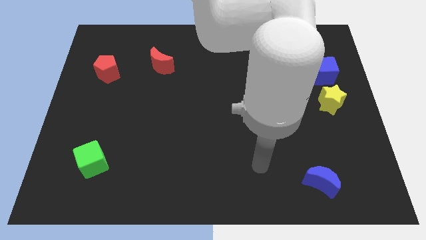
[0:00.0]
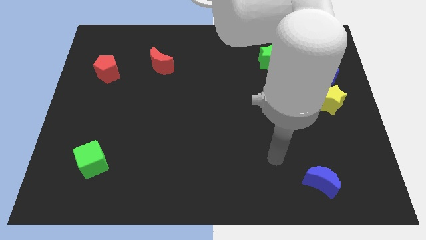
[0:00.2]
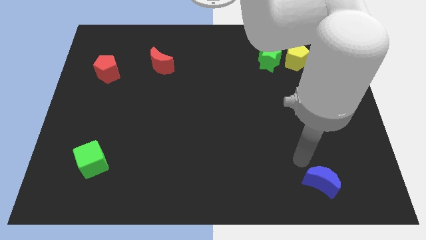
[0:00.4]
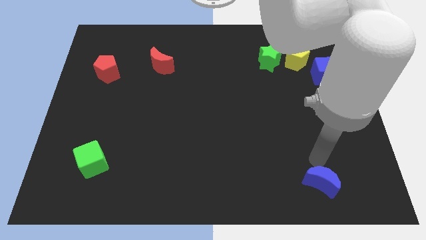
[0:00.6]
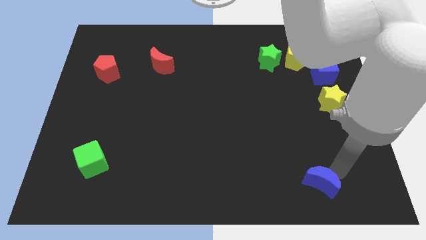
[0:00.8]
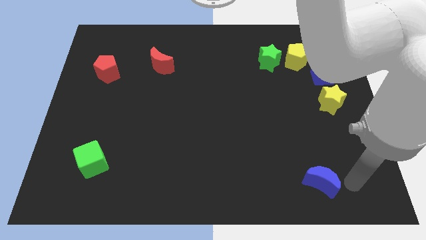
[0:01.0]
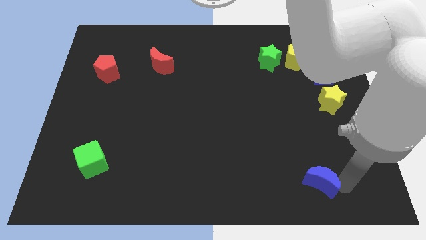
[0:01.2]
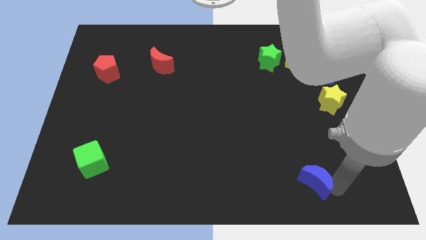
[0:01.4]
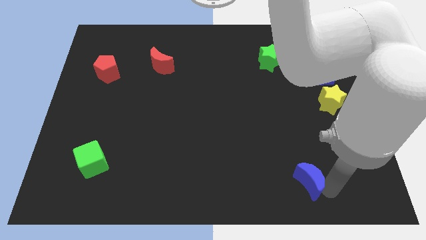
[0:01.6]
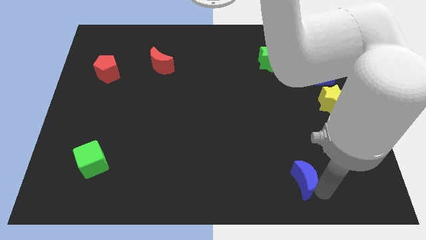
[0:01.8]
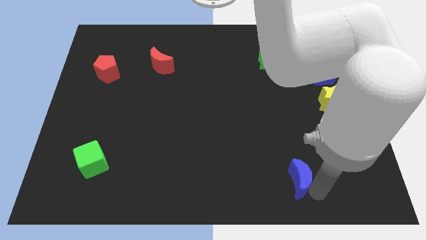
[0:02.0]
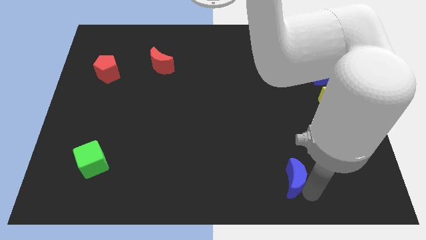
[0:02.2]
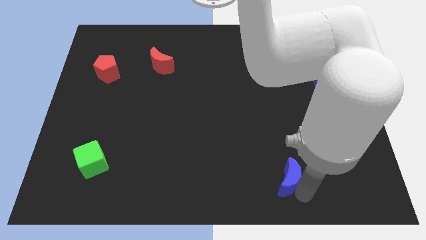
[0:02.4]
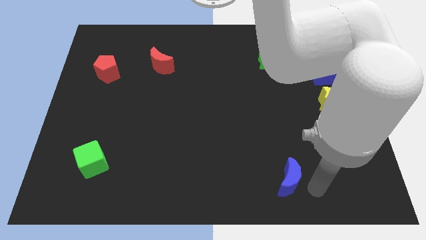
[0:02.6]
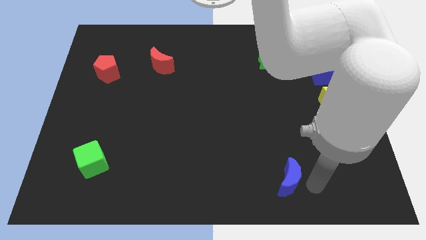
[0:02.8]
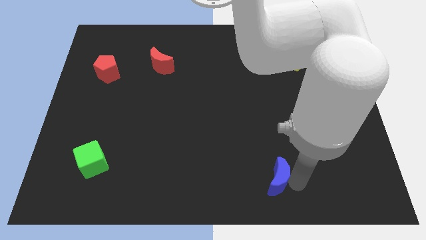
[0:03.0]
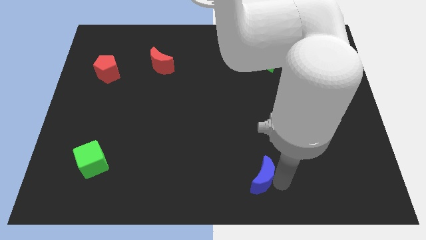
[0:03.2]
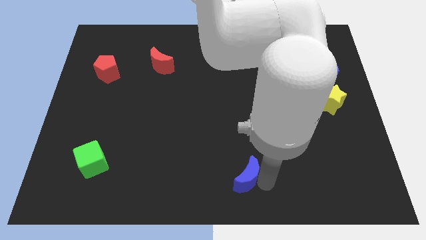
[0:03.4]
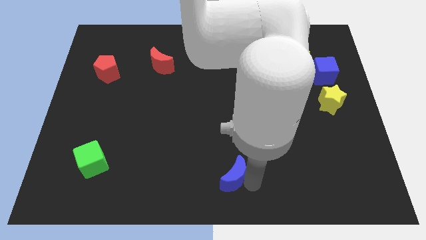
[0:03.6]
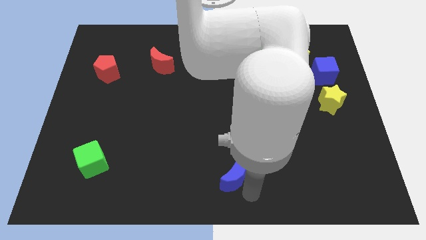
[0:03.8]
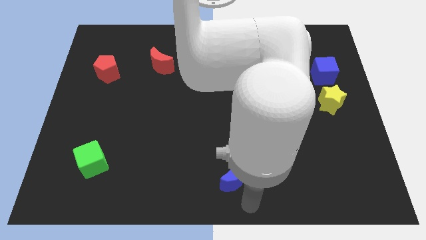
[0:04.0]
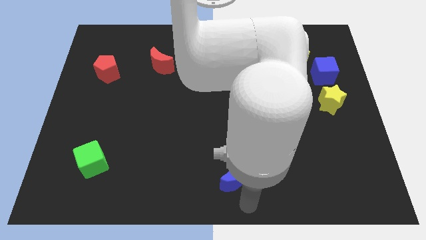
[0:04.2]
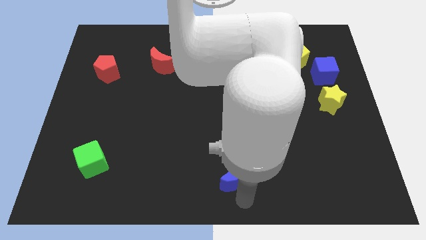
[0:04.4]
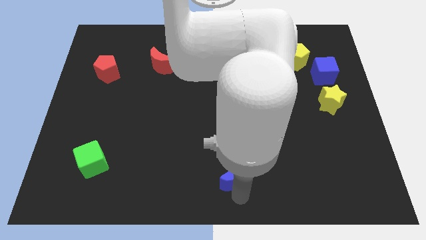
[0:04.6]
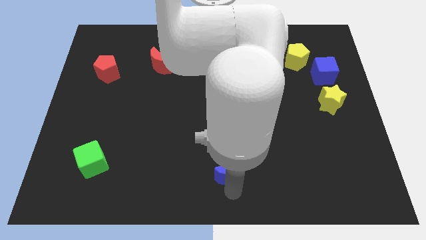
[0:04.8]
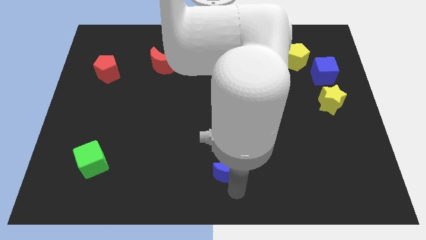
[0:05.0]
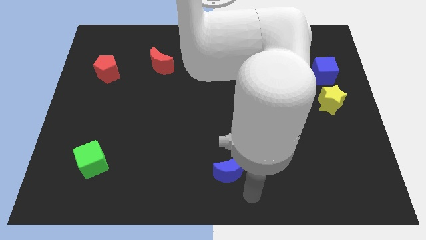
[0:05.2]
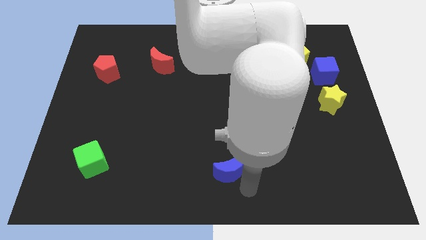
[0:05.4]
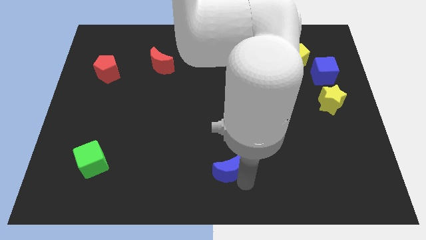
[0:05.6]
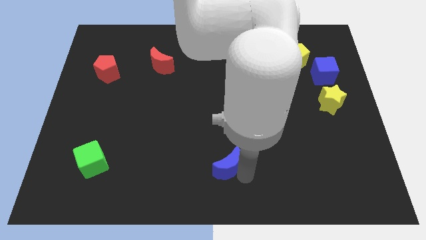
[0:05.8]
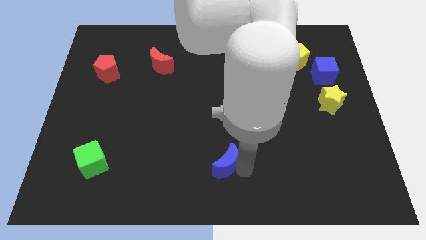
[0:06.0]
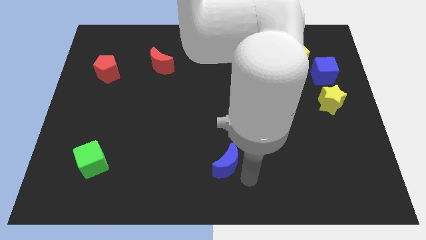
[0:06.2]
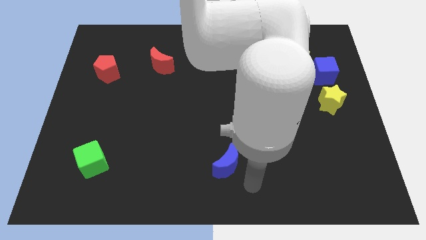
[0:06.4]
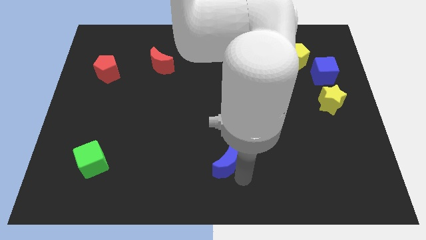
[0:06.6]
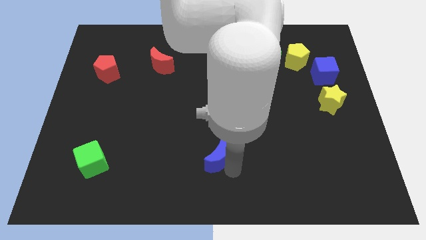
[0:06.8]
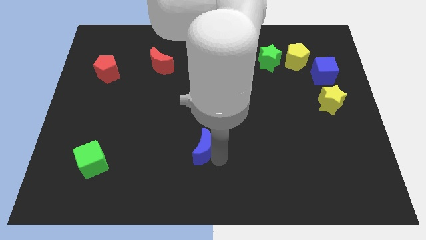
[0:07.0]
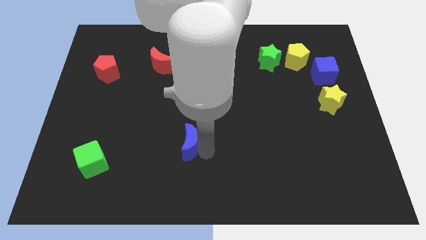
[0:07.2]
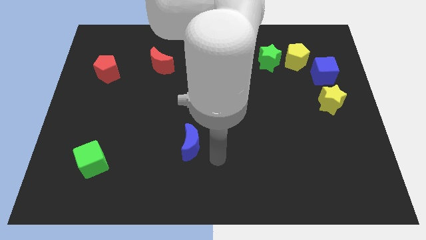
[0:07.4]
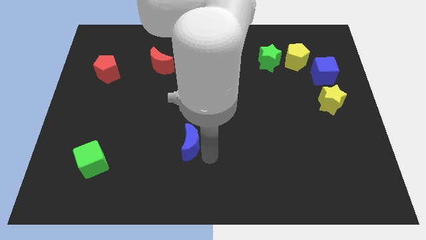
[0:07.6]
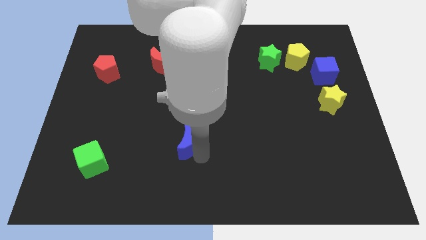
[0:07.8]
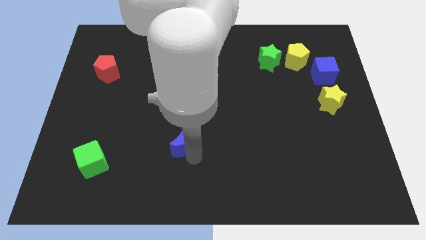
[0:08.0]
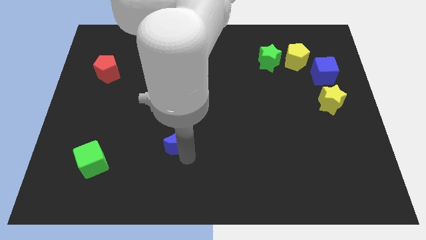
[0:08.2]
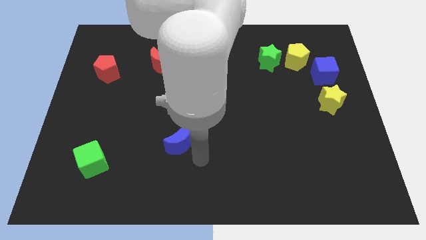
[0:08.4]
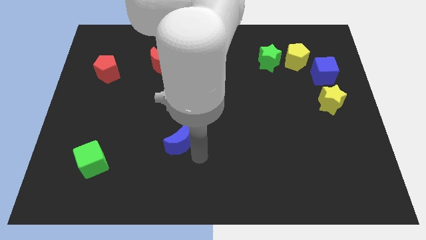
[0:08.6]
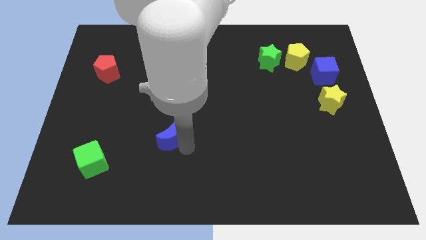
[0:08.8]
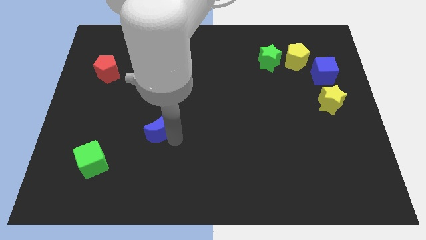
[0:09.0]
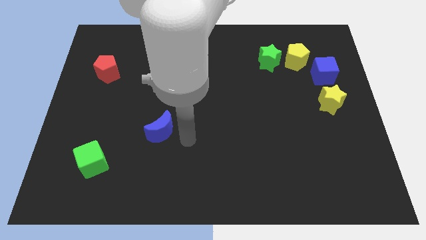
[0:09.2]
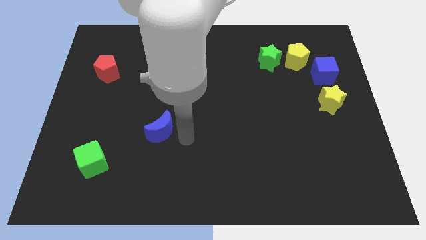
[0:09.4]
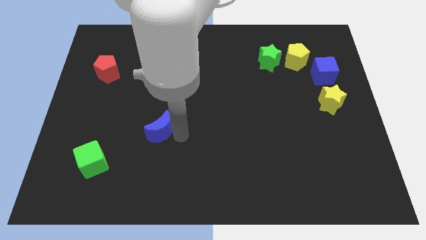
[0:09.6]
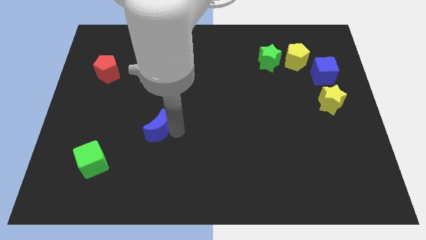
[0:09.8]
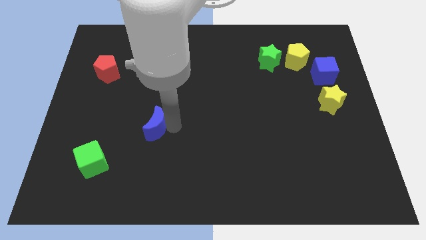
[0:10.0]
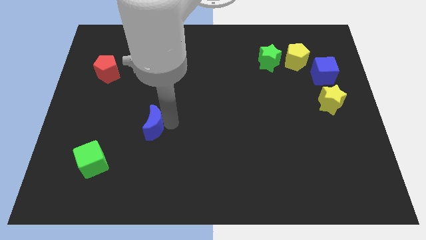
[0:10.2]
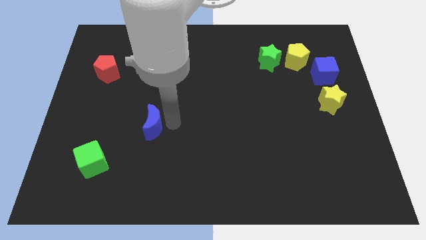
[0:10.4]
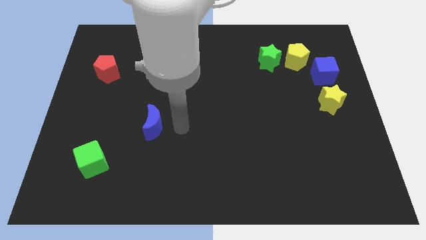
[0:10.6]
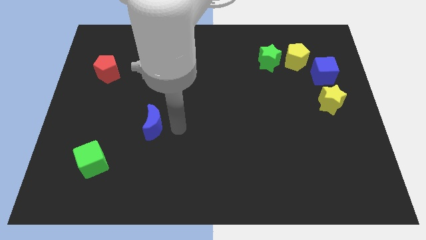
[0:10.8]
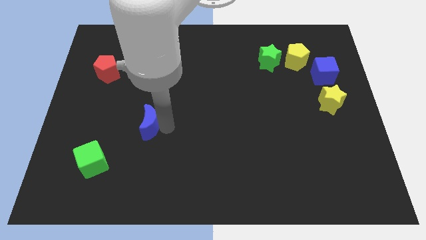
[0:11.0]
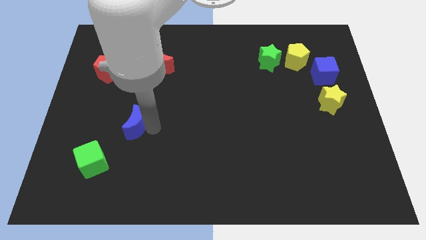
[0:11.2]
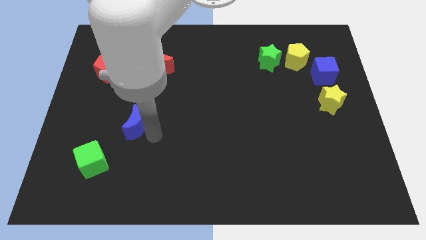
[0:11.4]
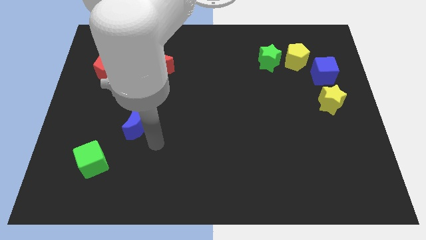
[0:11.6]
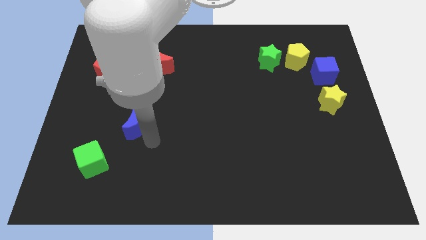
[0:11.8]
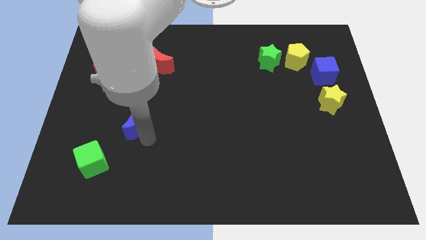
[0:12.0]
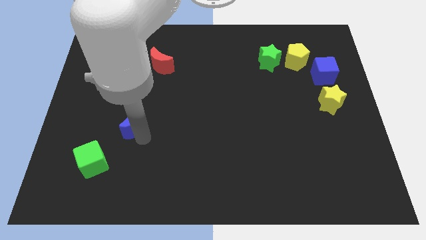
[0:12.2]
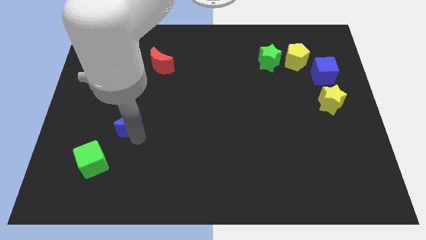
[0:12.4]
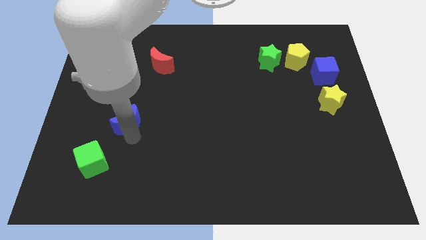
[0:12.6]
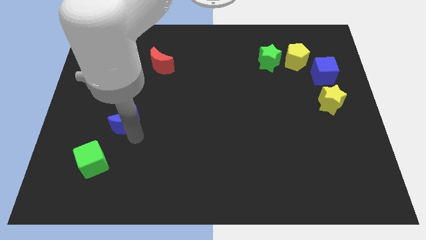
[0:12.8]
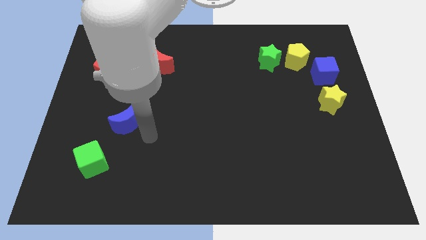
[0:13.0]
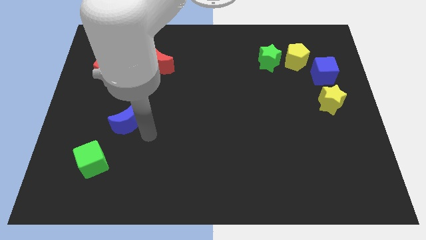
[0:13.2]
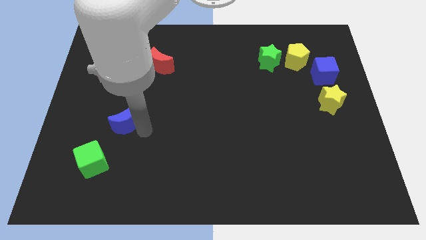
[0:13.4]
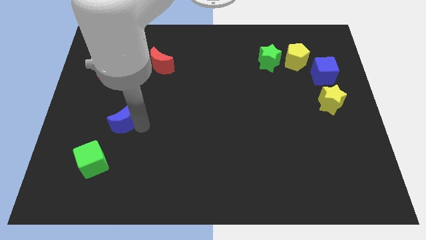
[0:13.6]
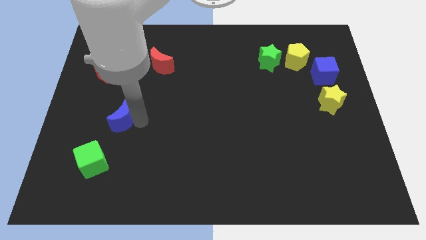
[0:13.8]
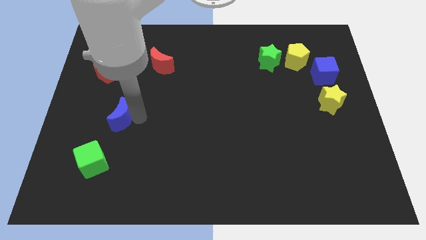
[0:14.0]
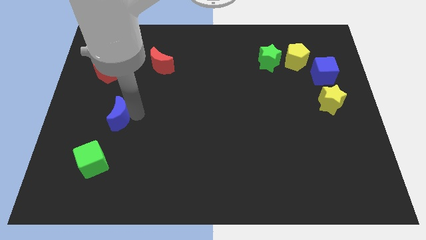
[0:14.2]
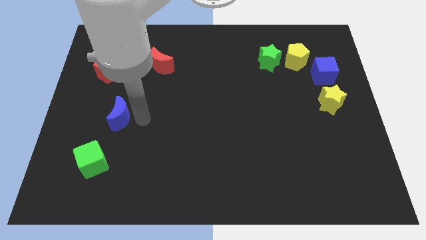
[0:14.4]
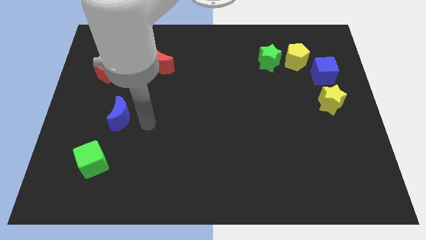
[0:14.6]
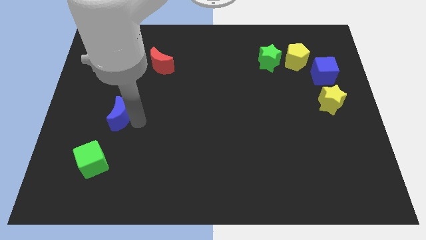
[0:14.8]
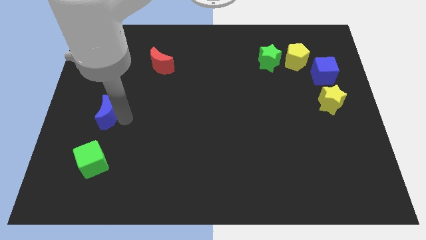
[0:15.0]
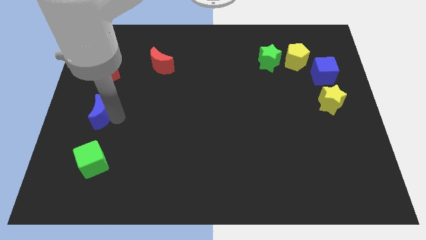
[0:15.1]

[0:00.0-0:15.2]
move the blue moon to the center left

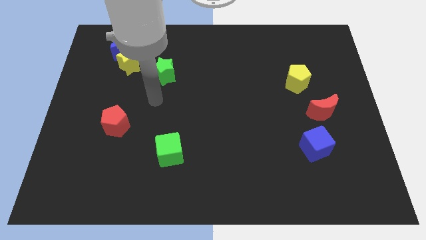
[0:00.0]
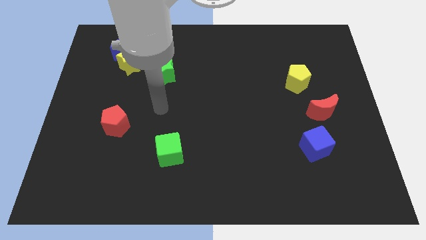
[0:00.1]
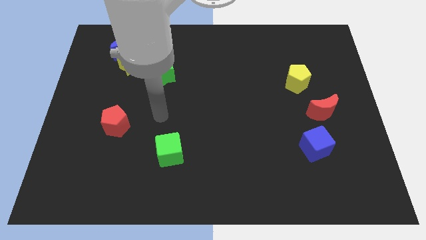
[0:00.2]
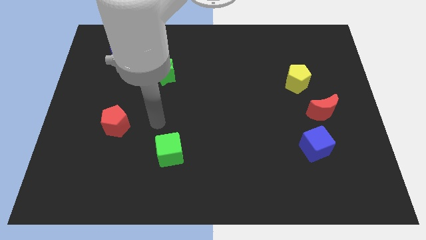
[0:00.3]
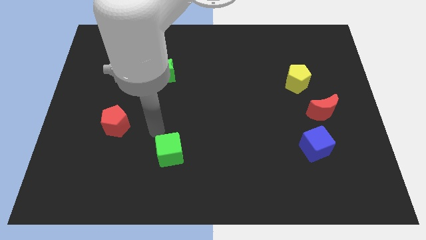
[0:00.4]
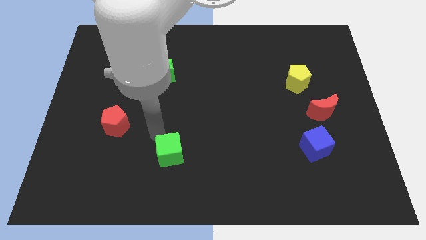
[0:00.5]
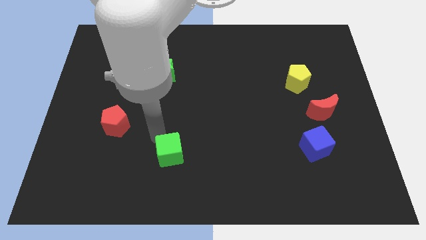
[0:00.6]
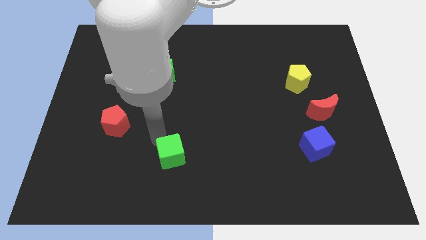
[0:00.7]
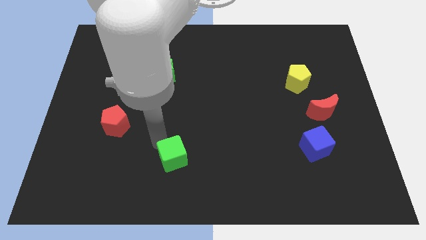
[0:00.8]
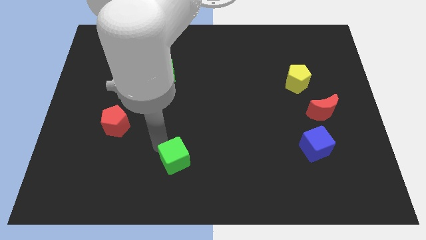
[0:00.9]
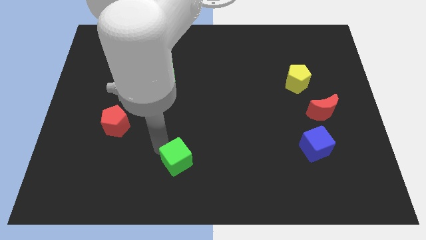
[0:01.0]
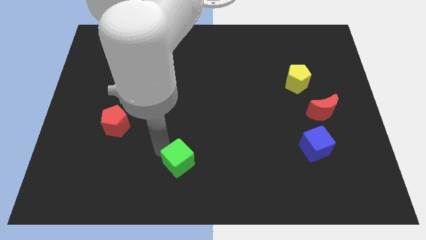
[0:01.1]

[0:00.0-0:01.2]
push the green cube to the bottom
